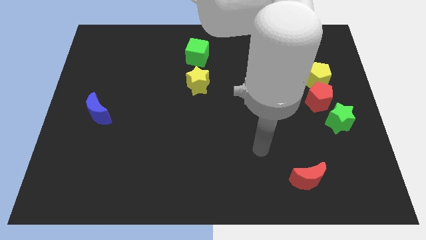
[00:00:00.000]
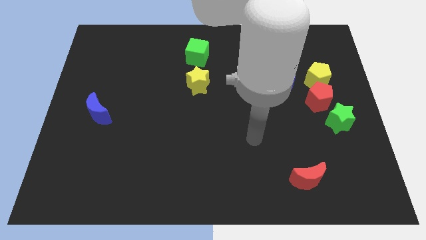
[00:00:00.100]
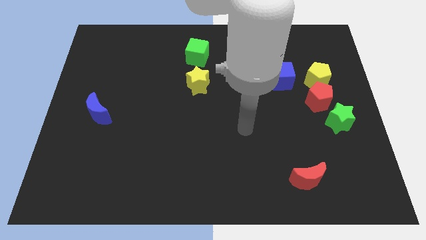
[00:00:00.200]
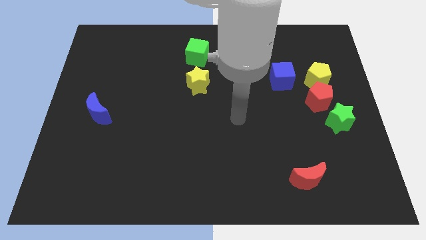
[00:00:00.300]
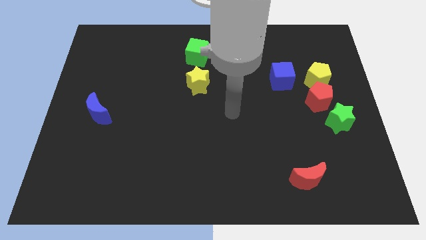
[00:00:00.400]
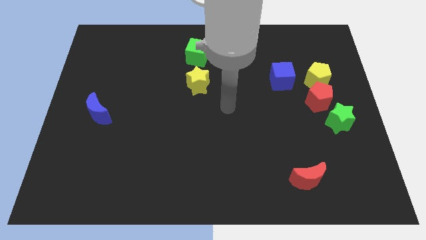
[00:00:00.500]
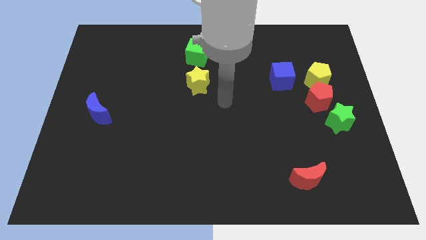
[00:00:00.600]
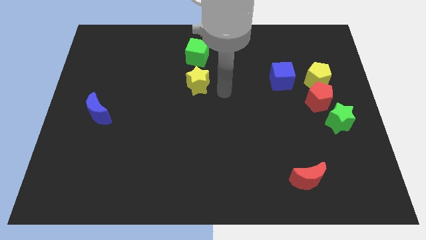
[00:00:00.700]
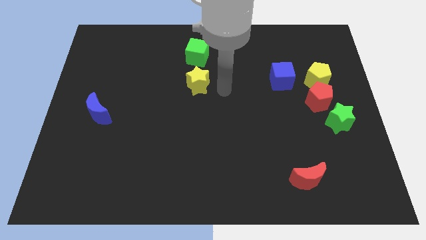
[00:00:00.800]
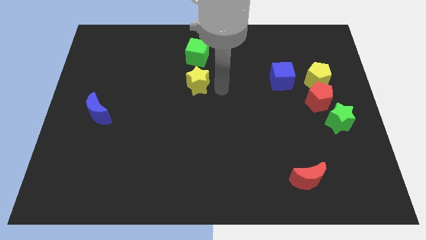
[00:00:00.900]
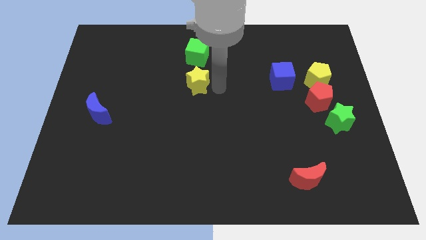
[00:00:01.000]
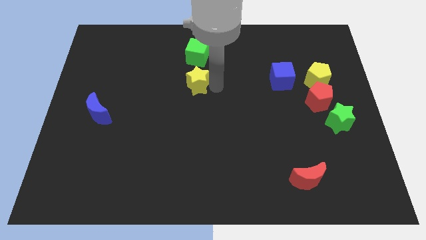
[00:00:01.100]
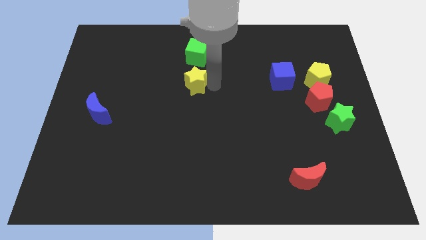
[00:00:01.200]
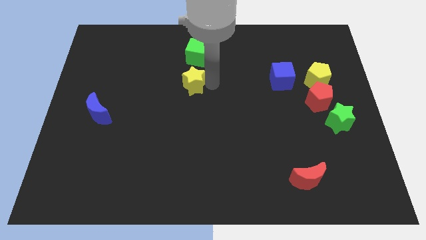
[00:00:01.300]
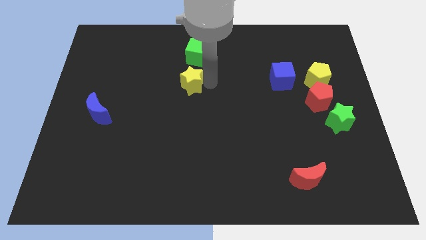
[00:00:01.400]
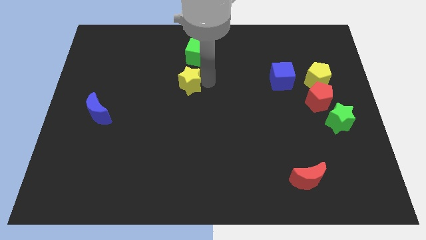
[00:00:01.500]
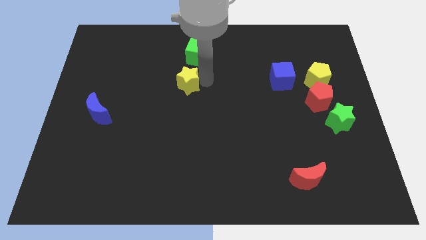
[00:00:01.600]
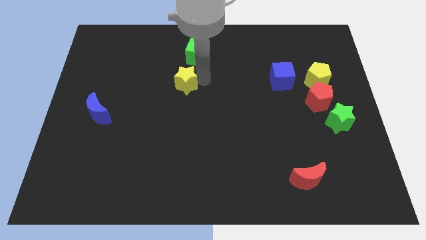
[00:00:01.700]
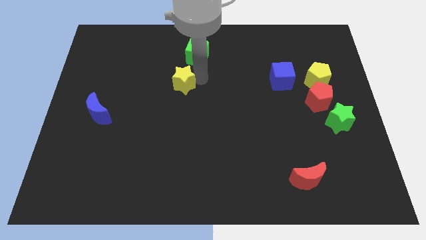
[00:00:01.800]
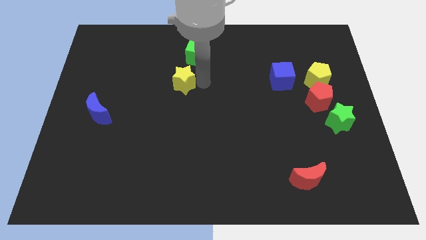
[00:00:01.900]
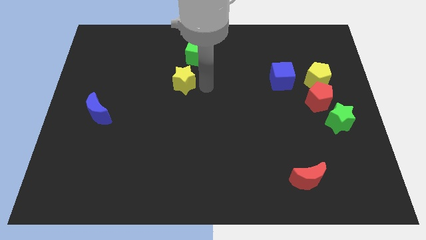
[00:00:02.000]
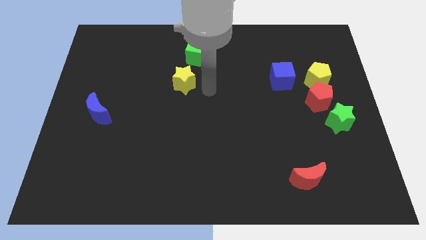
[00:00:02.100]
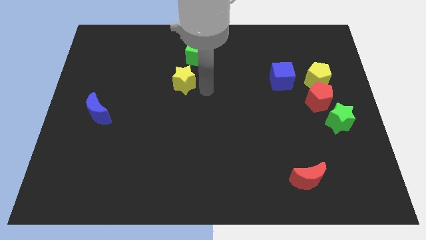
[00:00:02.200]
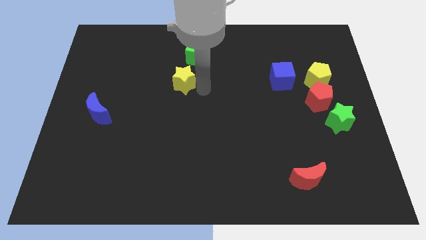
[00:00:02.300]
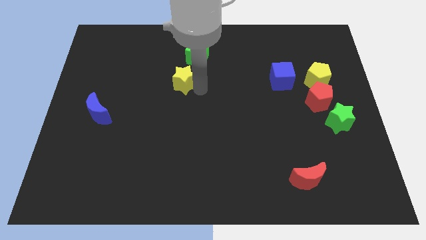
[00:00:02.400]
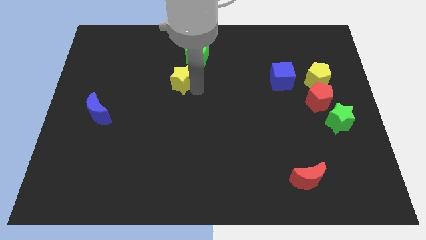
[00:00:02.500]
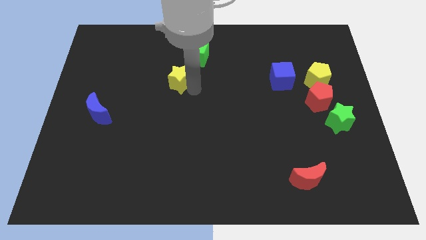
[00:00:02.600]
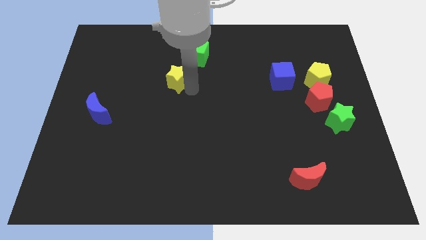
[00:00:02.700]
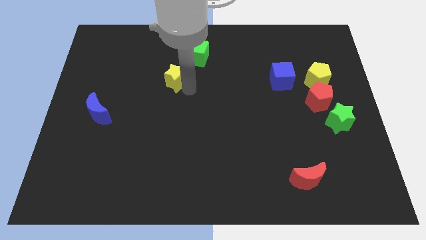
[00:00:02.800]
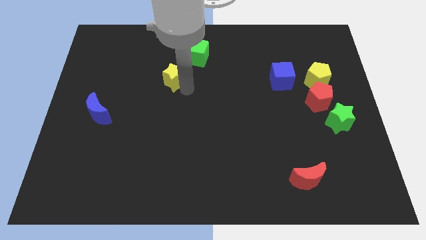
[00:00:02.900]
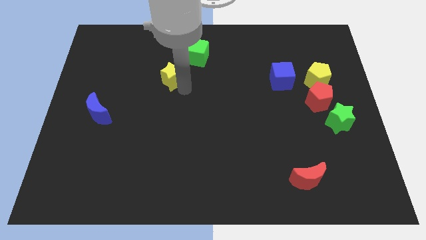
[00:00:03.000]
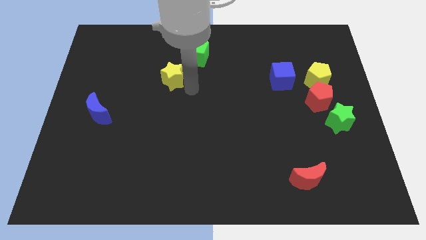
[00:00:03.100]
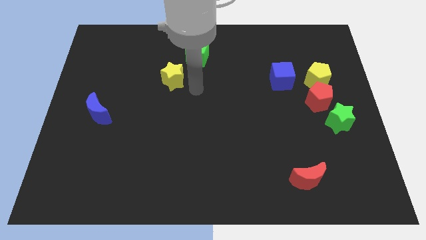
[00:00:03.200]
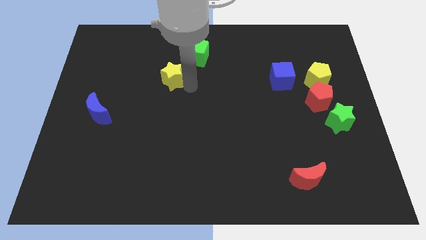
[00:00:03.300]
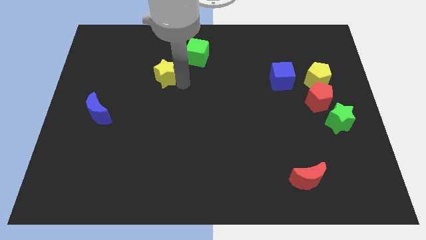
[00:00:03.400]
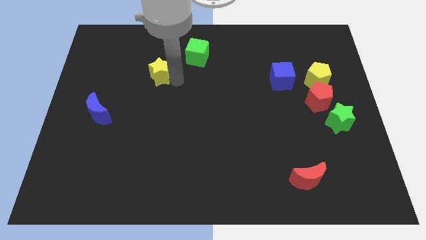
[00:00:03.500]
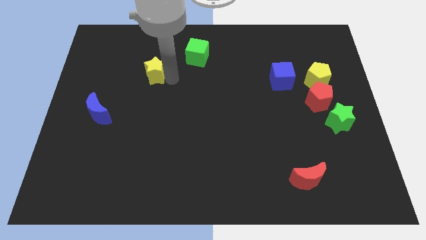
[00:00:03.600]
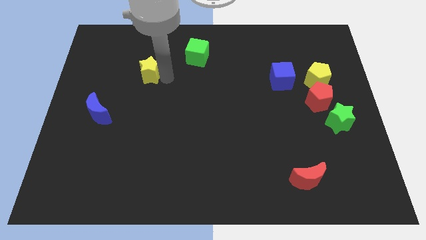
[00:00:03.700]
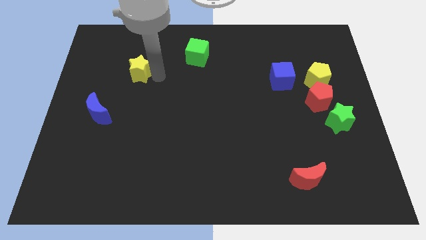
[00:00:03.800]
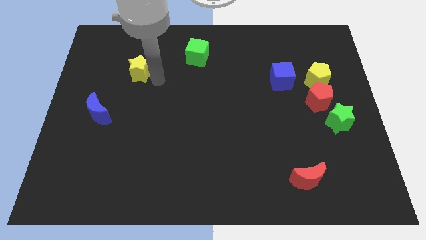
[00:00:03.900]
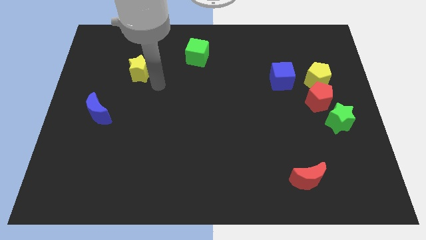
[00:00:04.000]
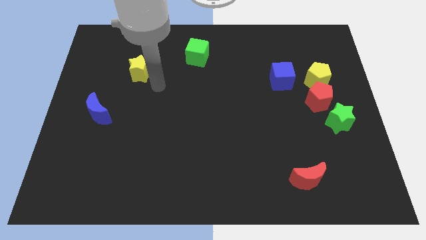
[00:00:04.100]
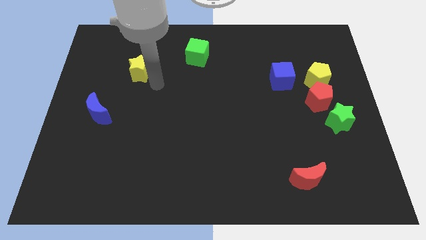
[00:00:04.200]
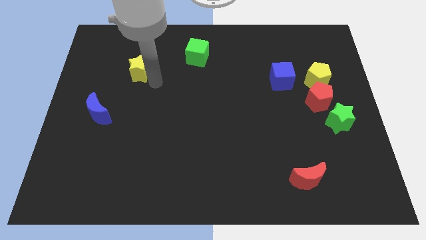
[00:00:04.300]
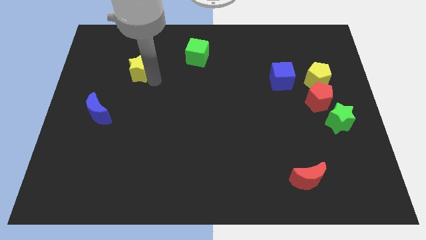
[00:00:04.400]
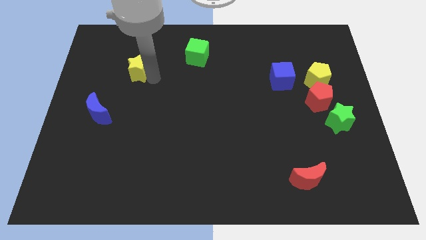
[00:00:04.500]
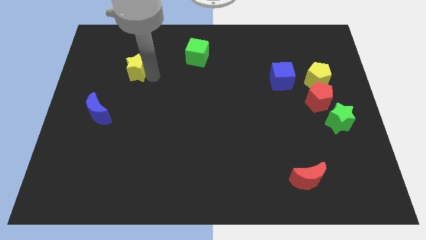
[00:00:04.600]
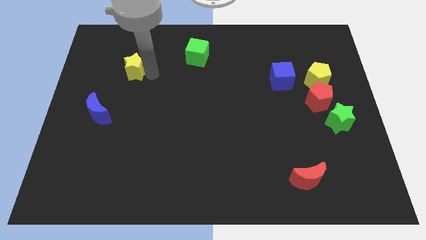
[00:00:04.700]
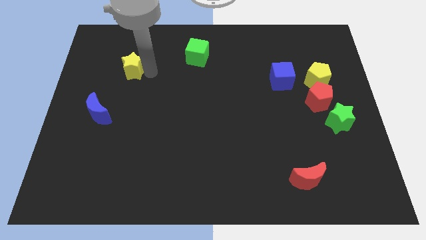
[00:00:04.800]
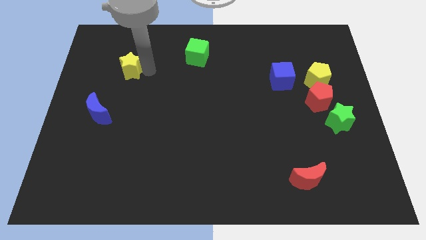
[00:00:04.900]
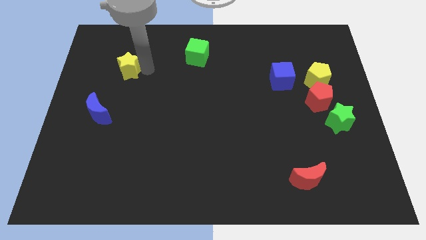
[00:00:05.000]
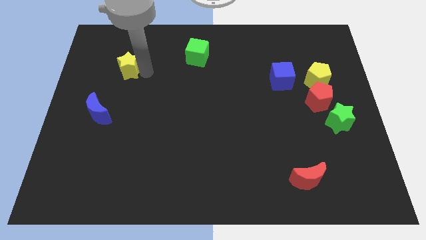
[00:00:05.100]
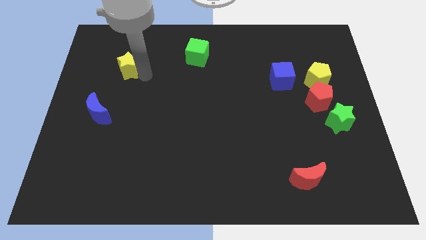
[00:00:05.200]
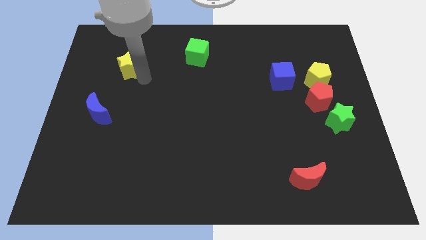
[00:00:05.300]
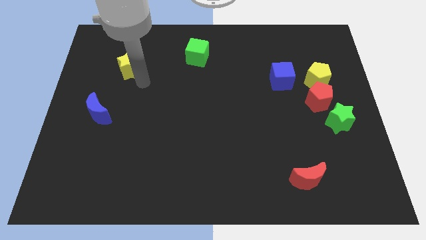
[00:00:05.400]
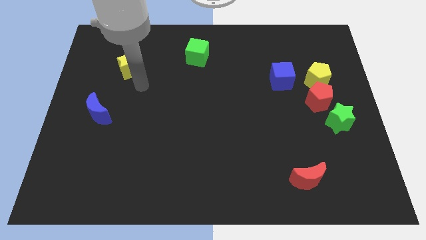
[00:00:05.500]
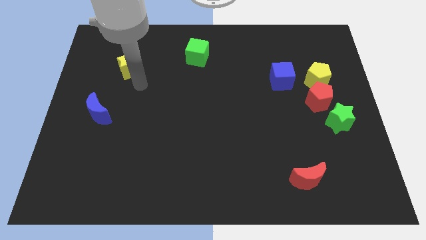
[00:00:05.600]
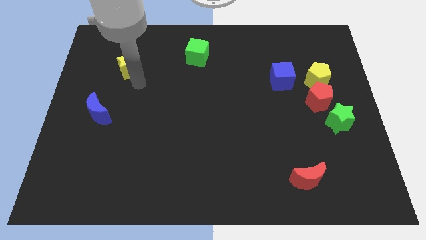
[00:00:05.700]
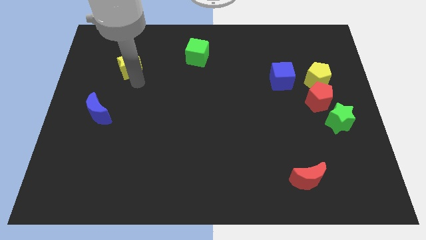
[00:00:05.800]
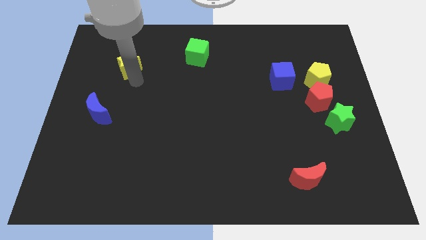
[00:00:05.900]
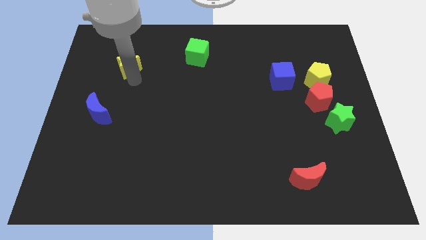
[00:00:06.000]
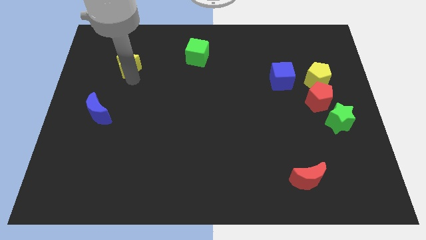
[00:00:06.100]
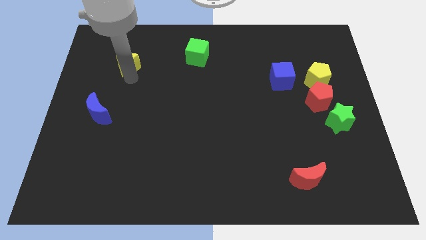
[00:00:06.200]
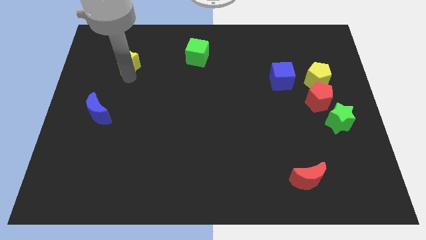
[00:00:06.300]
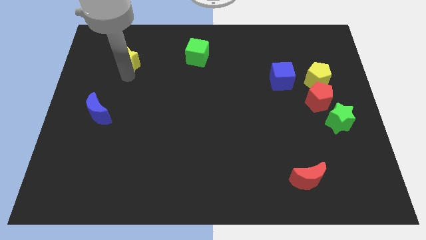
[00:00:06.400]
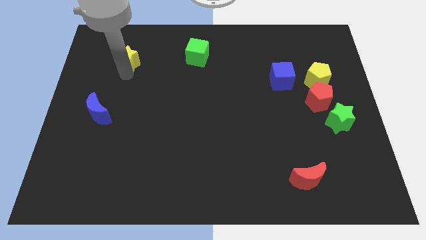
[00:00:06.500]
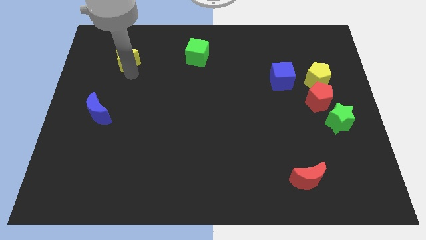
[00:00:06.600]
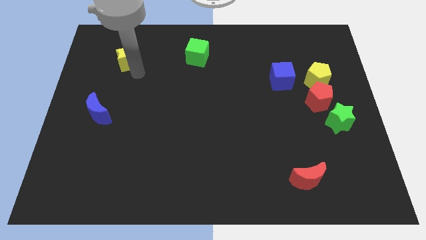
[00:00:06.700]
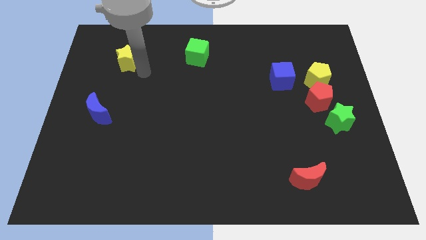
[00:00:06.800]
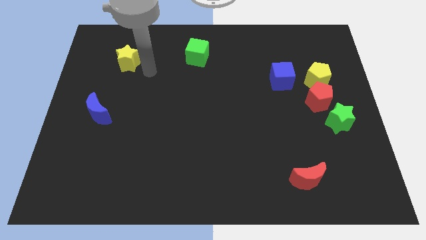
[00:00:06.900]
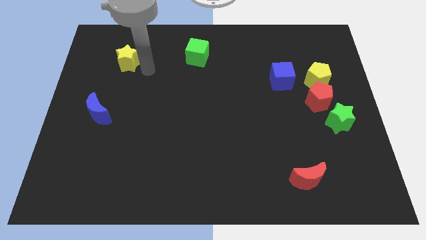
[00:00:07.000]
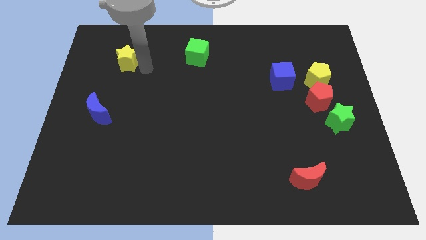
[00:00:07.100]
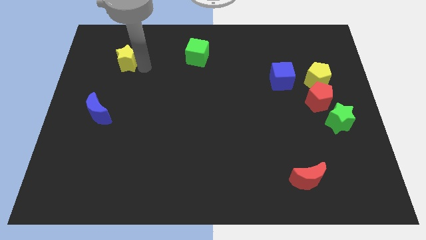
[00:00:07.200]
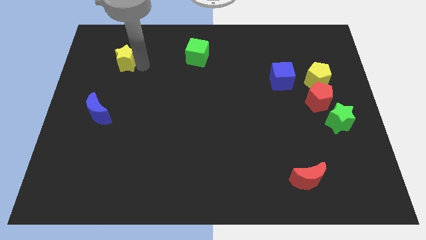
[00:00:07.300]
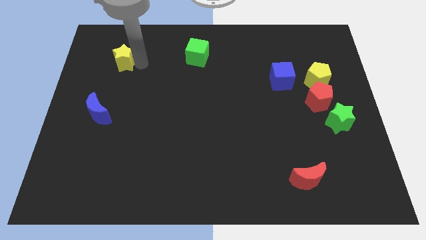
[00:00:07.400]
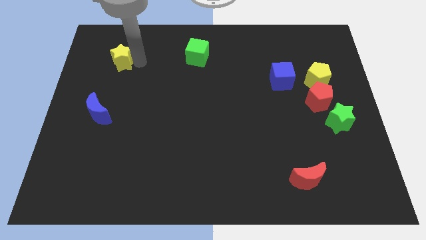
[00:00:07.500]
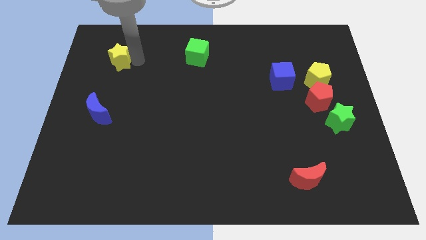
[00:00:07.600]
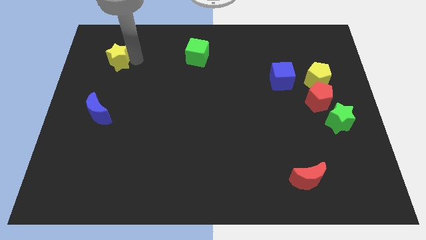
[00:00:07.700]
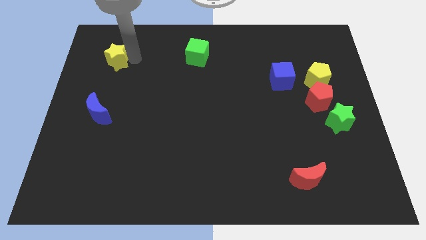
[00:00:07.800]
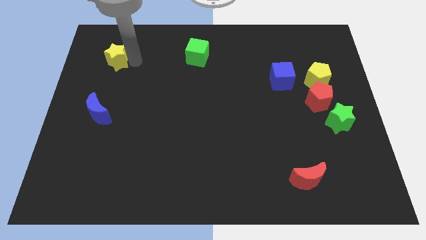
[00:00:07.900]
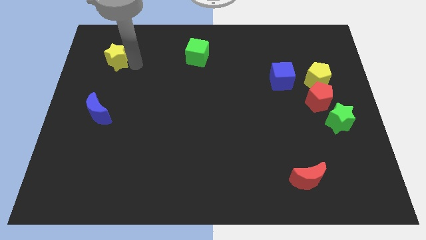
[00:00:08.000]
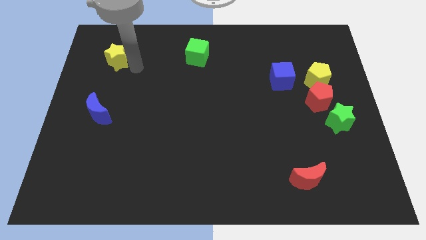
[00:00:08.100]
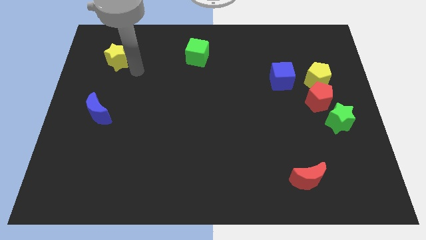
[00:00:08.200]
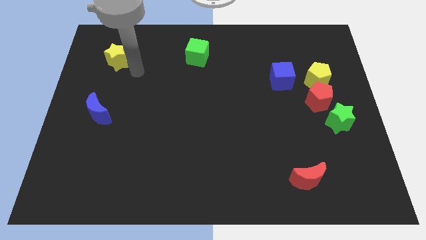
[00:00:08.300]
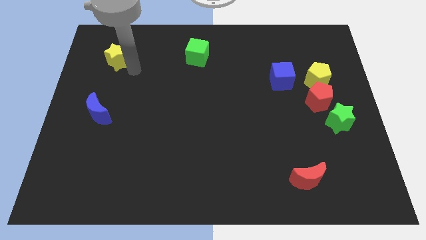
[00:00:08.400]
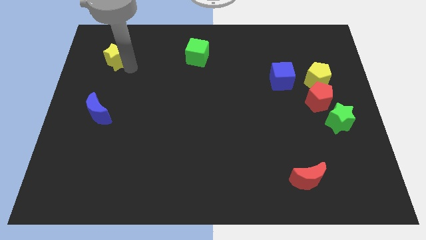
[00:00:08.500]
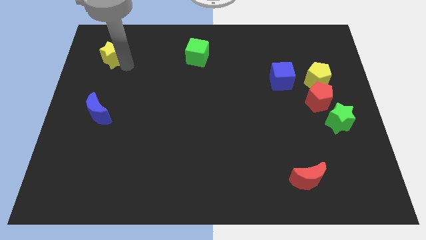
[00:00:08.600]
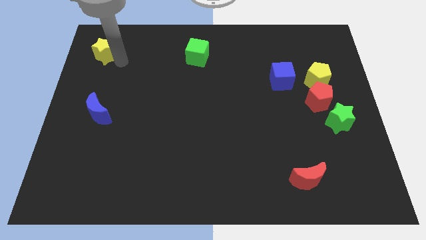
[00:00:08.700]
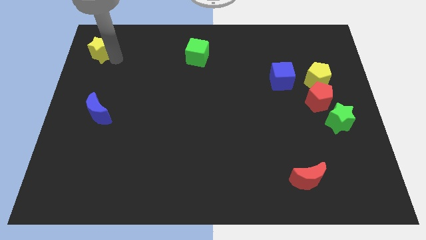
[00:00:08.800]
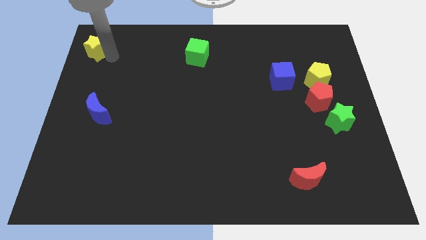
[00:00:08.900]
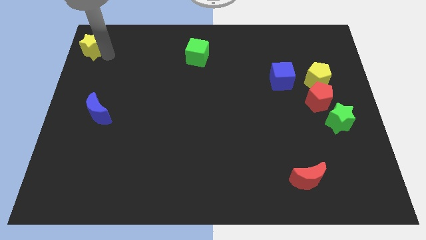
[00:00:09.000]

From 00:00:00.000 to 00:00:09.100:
push the yellow star to the top left
